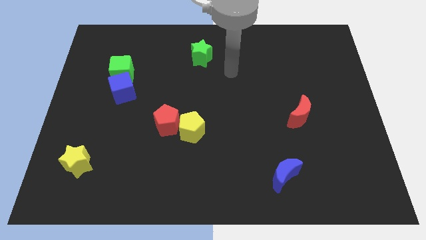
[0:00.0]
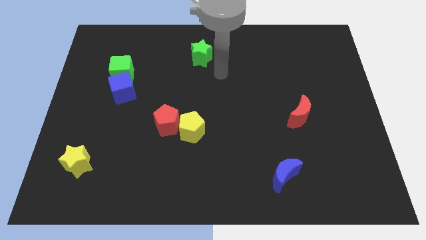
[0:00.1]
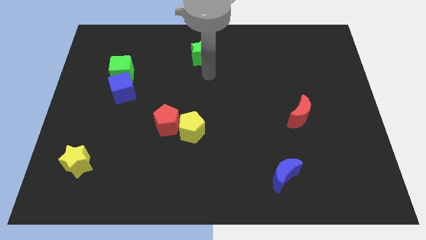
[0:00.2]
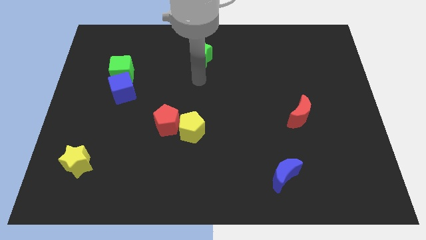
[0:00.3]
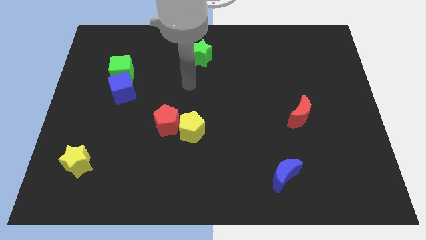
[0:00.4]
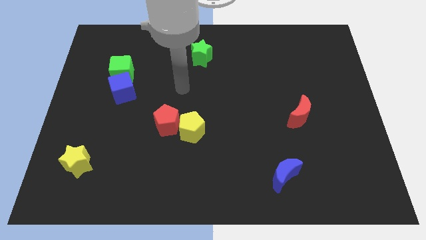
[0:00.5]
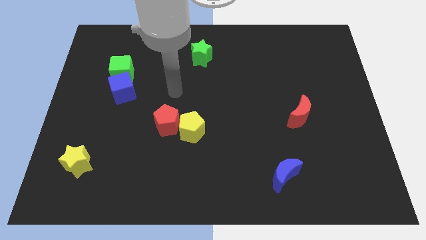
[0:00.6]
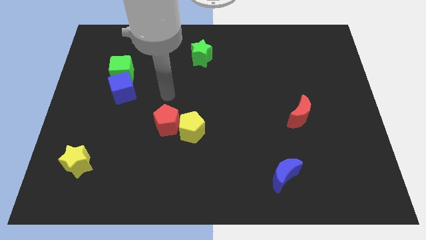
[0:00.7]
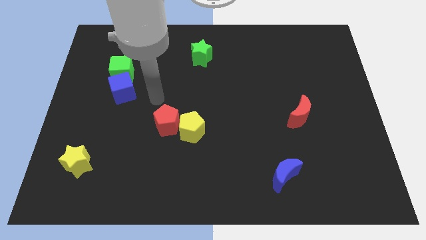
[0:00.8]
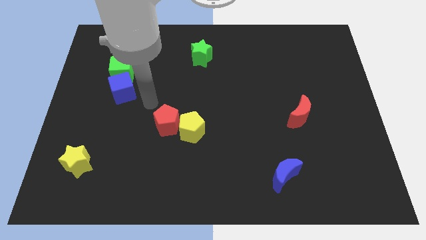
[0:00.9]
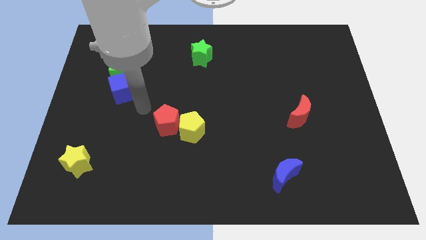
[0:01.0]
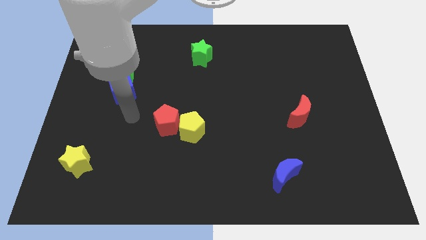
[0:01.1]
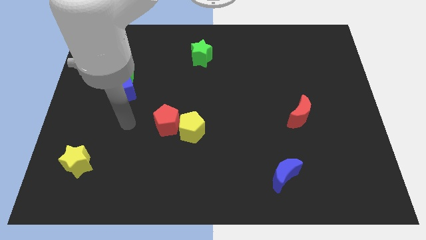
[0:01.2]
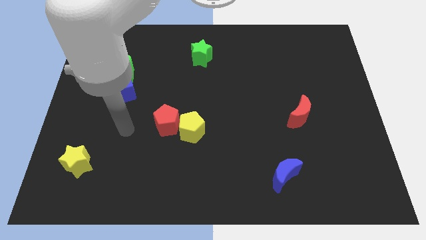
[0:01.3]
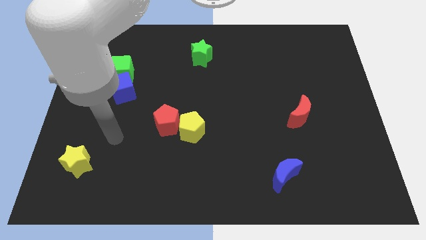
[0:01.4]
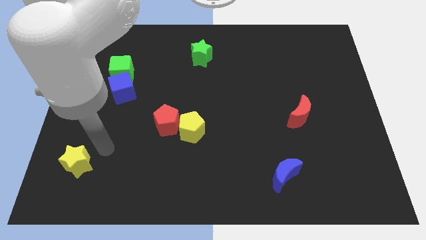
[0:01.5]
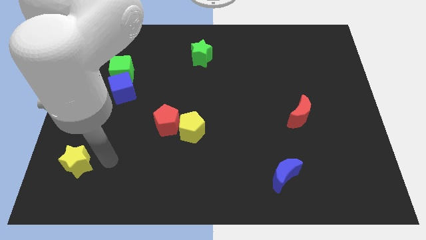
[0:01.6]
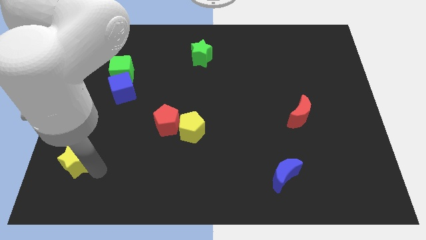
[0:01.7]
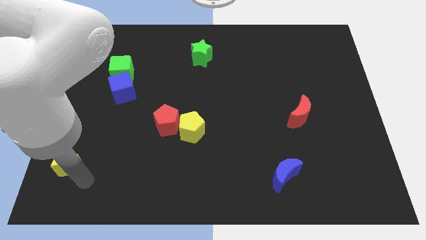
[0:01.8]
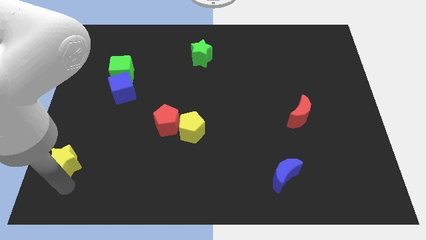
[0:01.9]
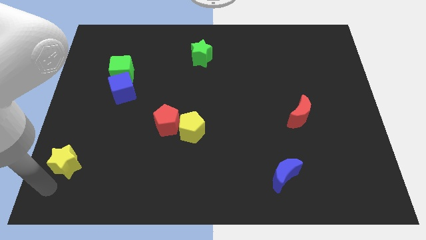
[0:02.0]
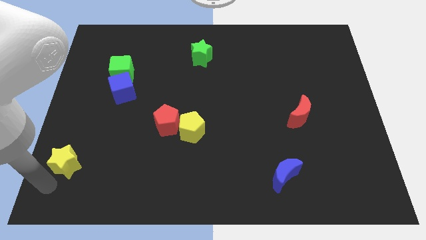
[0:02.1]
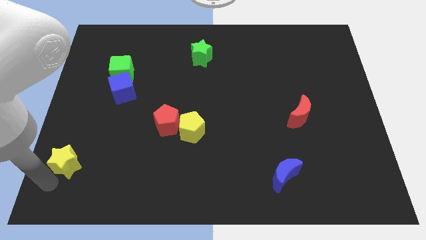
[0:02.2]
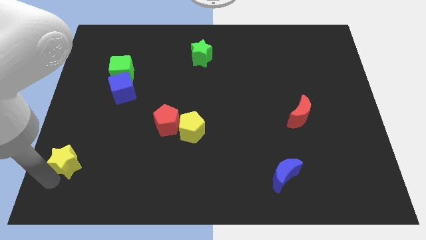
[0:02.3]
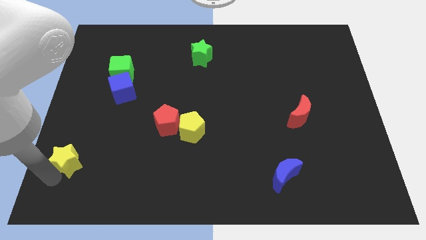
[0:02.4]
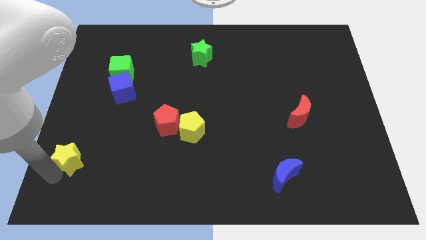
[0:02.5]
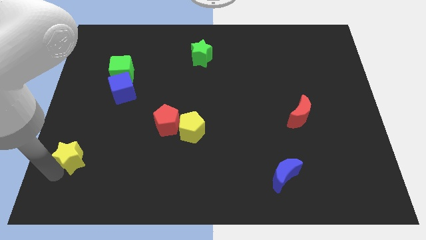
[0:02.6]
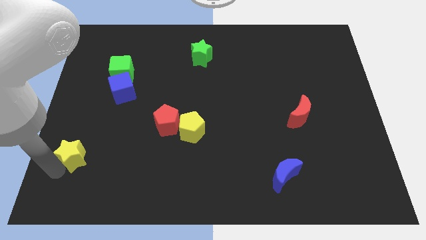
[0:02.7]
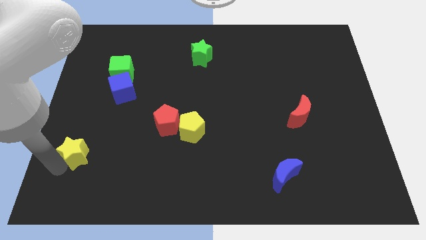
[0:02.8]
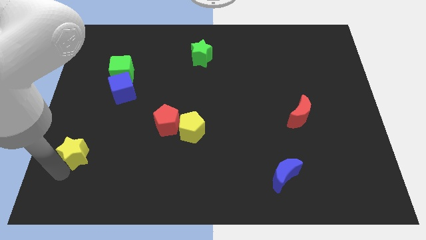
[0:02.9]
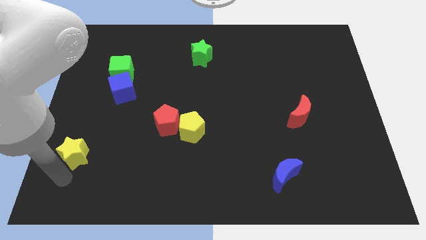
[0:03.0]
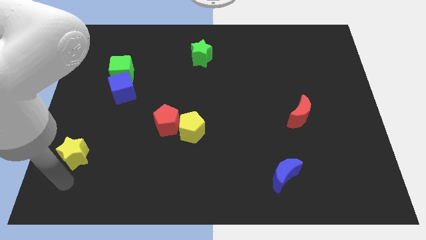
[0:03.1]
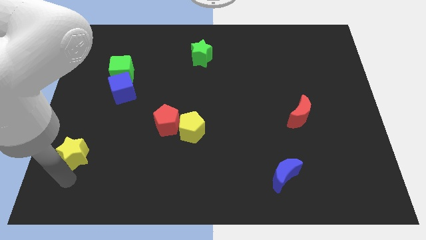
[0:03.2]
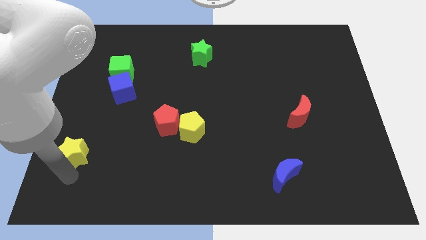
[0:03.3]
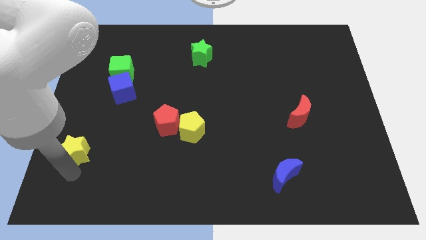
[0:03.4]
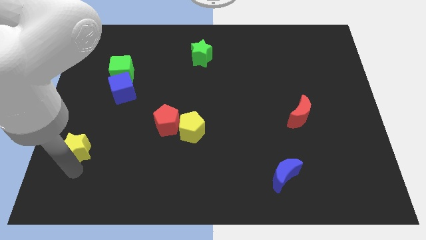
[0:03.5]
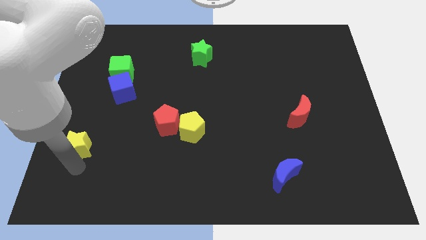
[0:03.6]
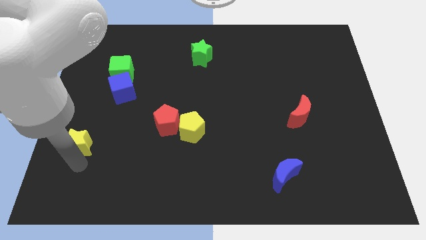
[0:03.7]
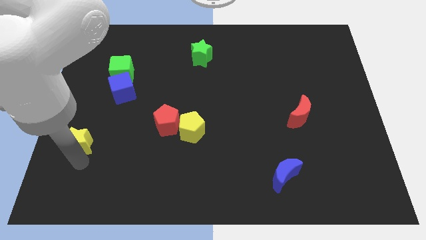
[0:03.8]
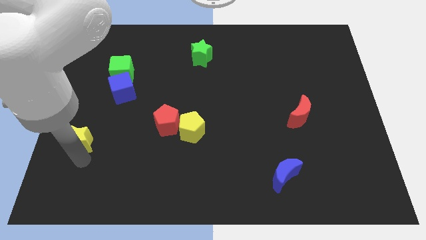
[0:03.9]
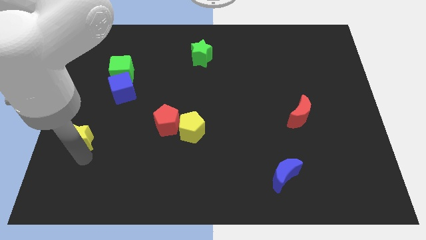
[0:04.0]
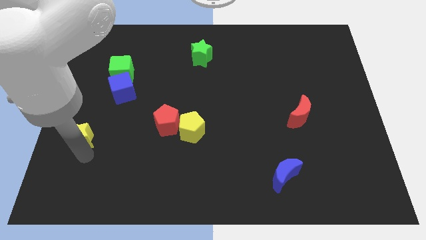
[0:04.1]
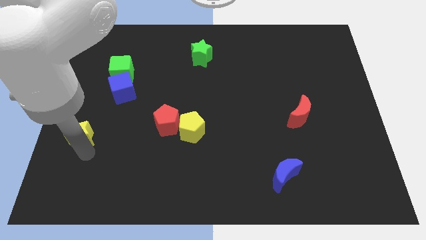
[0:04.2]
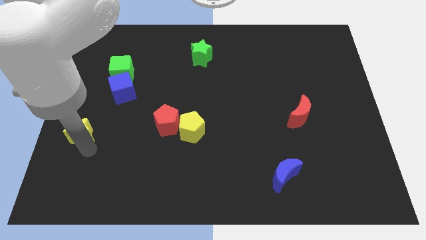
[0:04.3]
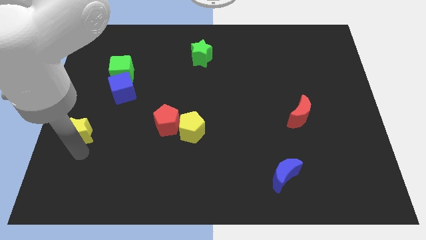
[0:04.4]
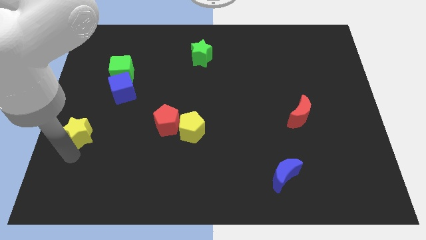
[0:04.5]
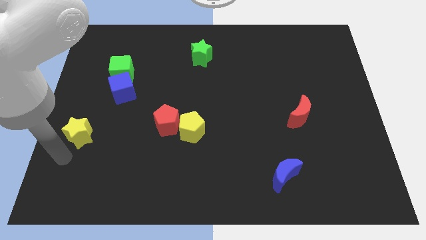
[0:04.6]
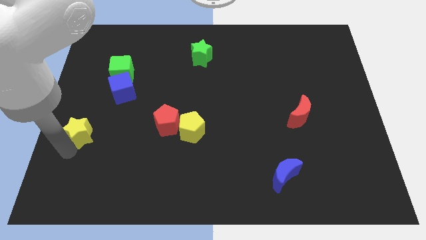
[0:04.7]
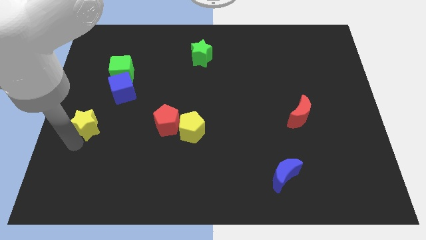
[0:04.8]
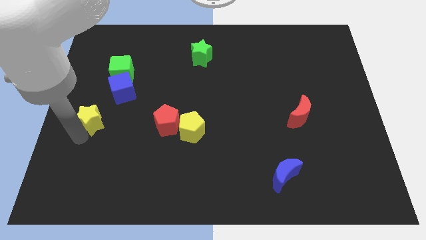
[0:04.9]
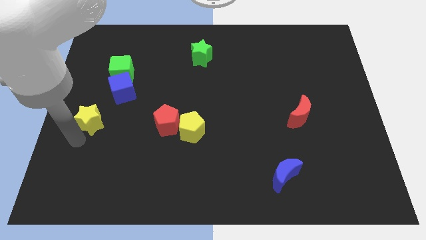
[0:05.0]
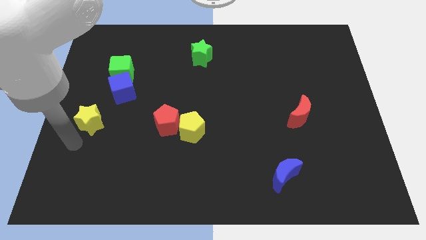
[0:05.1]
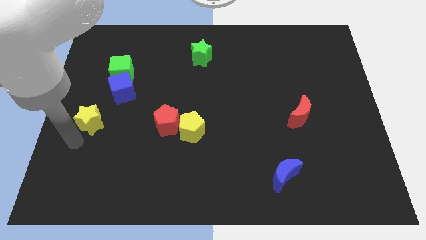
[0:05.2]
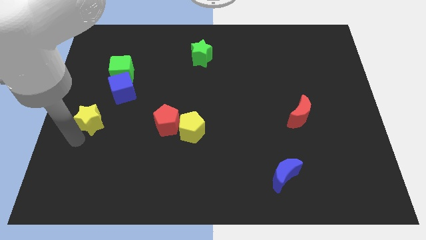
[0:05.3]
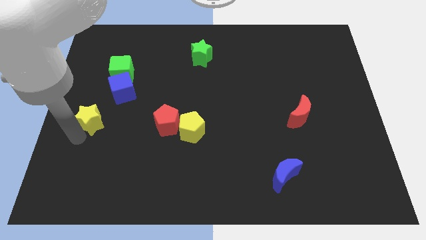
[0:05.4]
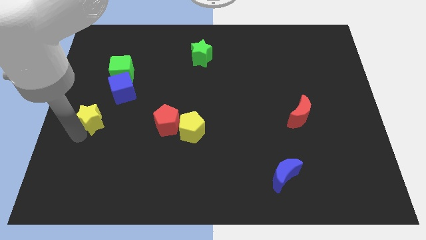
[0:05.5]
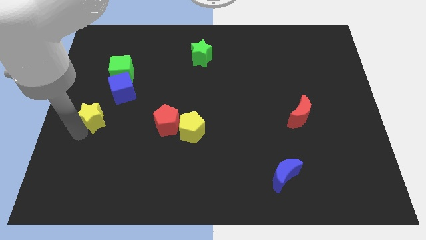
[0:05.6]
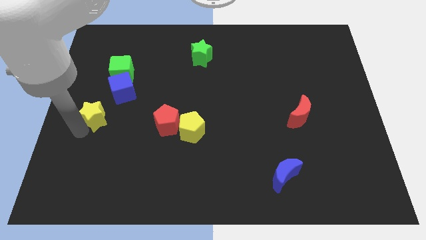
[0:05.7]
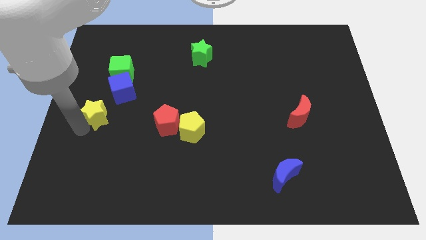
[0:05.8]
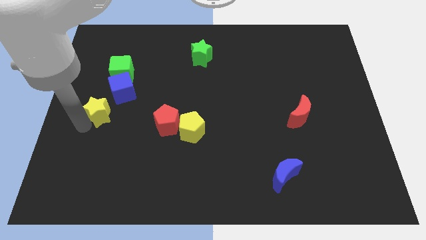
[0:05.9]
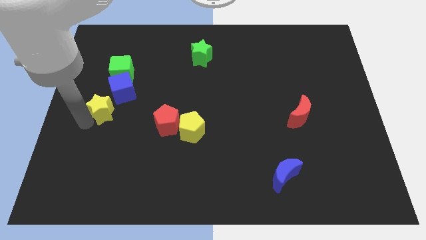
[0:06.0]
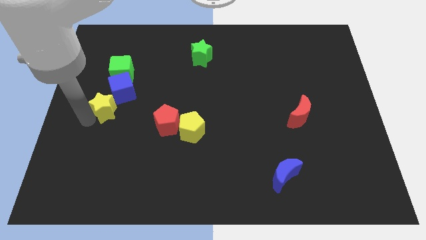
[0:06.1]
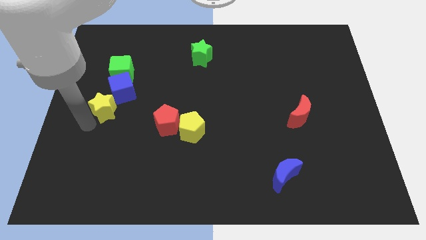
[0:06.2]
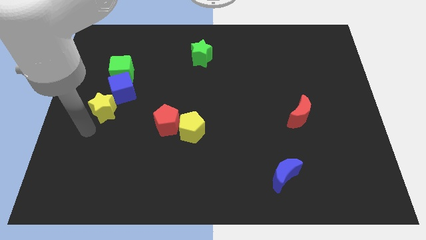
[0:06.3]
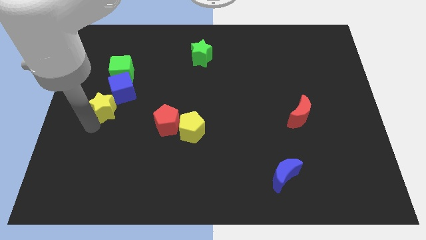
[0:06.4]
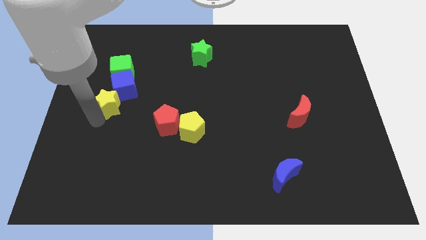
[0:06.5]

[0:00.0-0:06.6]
push the yellow star towards the blue cube

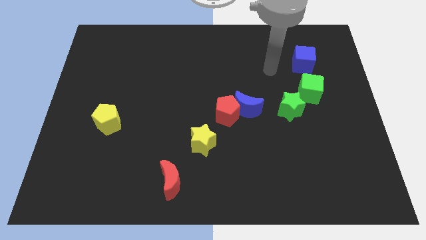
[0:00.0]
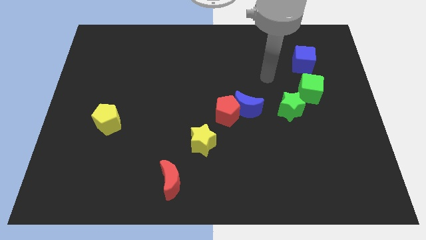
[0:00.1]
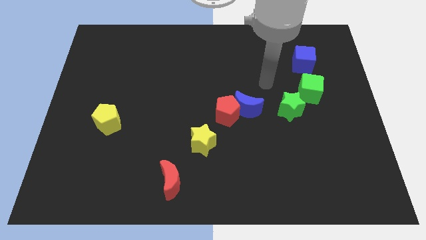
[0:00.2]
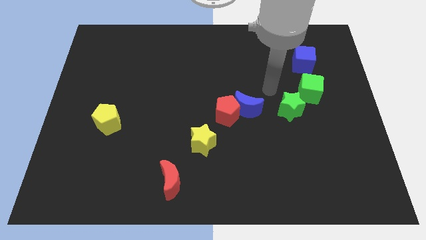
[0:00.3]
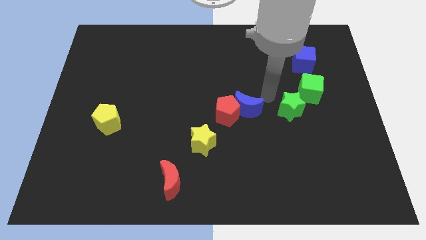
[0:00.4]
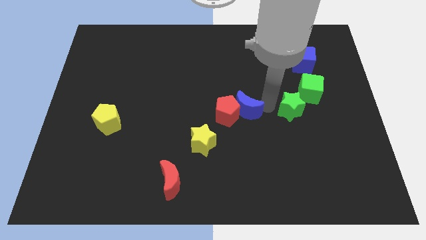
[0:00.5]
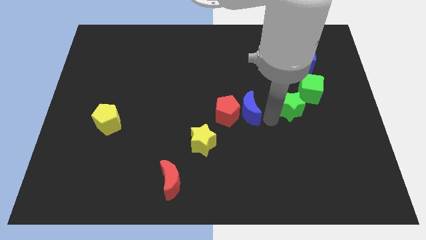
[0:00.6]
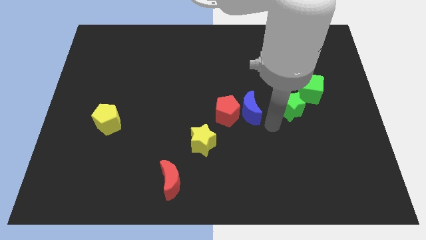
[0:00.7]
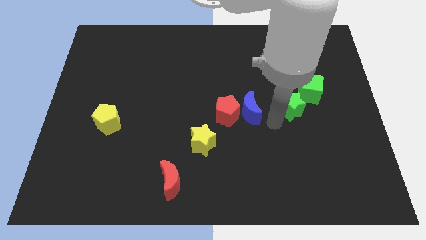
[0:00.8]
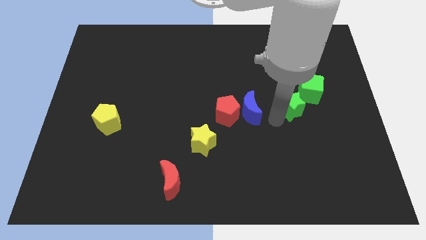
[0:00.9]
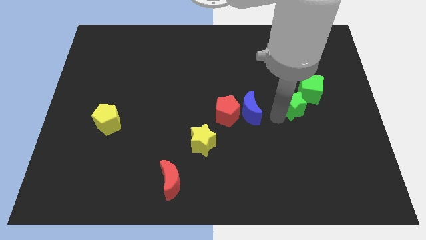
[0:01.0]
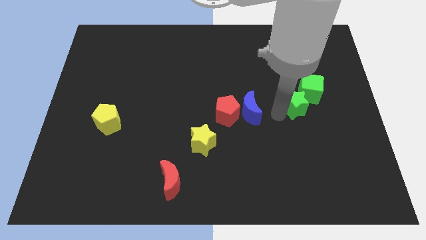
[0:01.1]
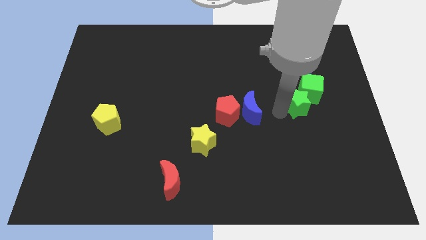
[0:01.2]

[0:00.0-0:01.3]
put the green star next to the green cube

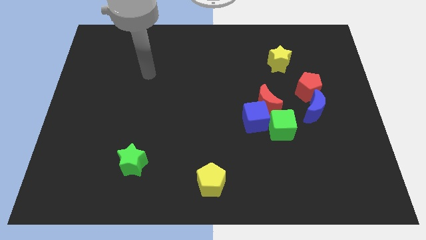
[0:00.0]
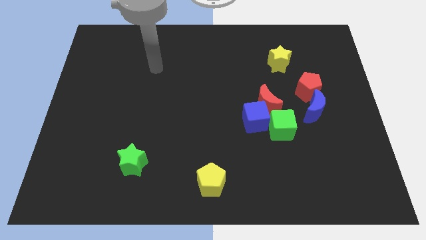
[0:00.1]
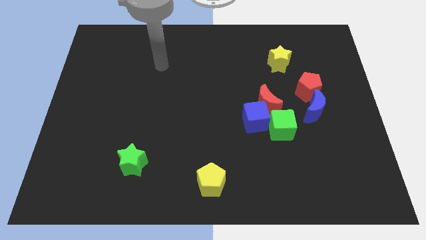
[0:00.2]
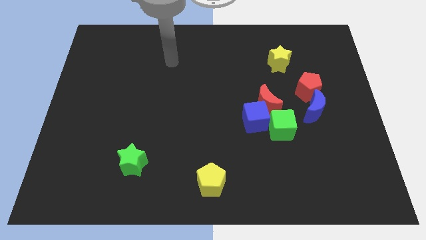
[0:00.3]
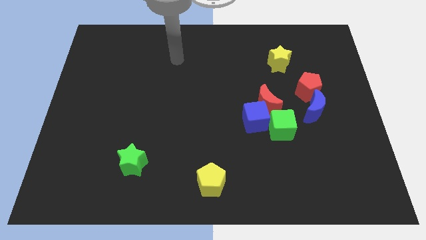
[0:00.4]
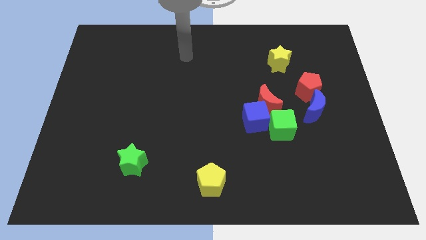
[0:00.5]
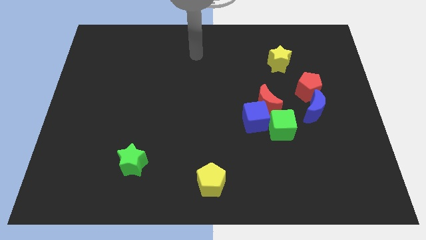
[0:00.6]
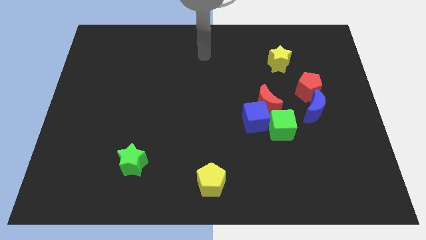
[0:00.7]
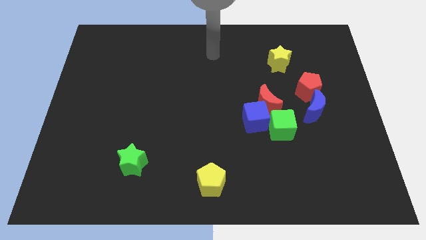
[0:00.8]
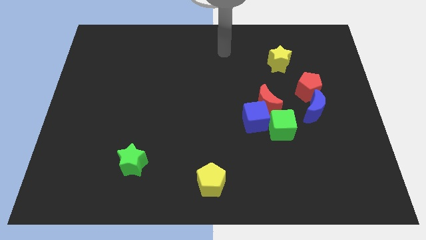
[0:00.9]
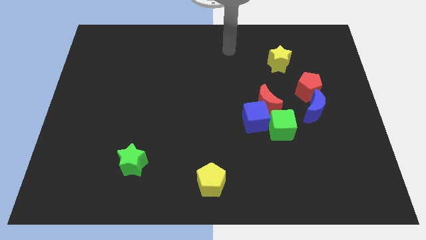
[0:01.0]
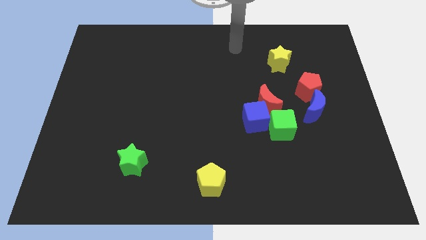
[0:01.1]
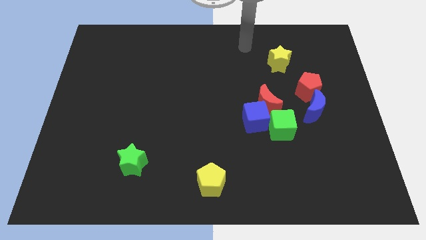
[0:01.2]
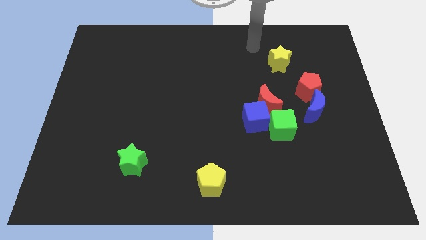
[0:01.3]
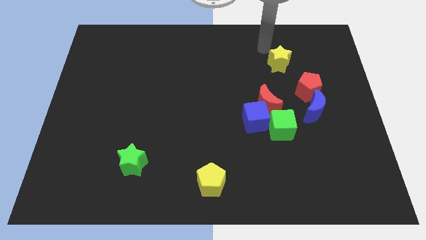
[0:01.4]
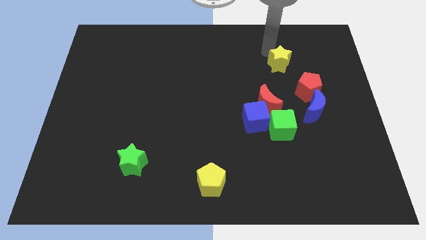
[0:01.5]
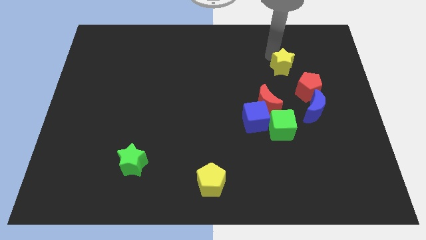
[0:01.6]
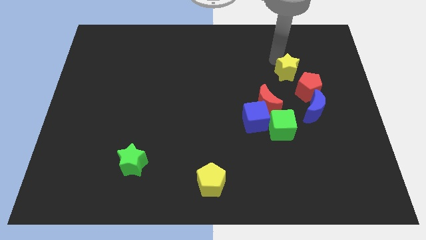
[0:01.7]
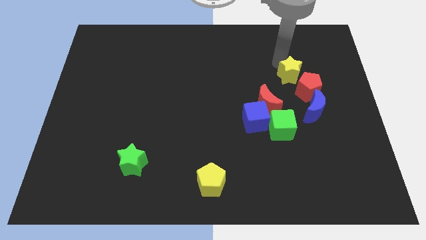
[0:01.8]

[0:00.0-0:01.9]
push the yellow star towards the red pentagon
